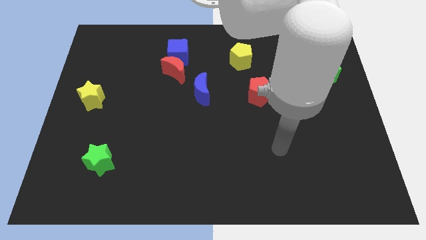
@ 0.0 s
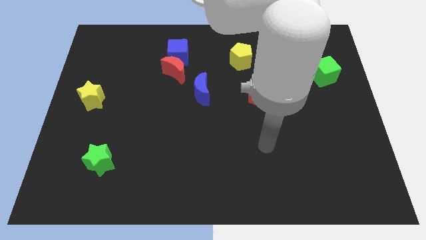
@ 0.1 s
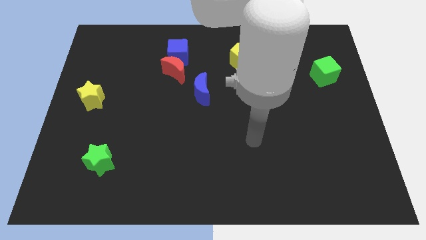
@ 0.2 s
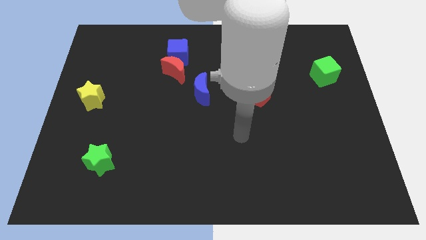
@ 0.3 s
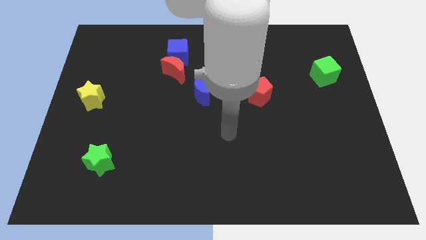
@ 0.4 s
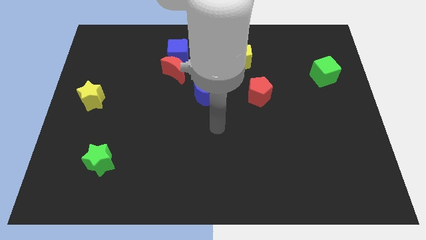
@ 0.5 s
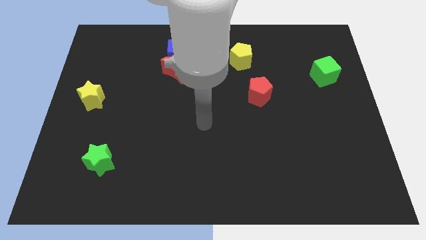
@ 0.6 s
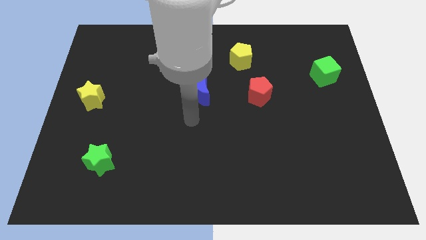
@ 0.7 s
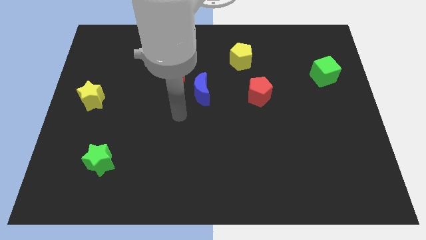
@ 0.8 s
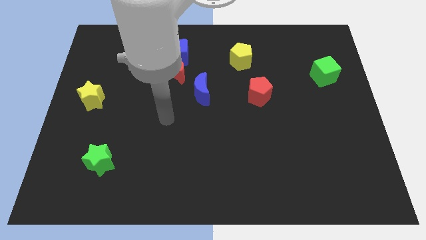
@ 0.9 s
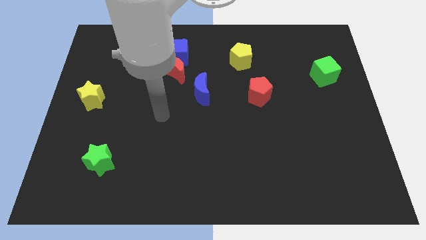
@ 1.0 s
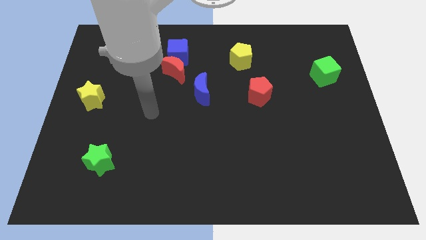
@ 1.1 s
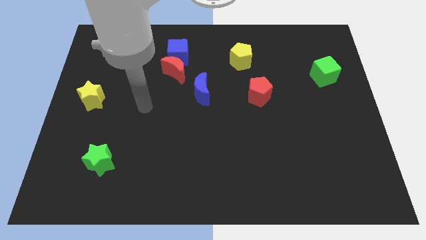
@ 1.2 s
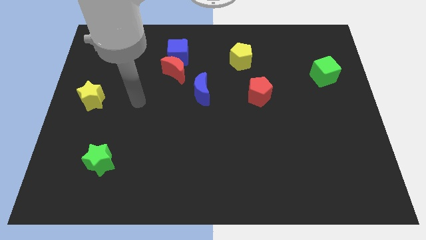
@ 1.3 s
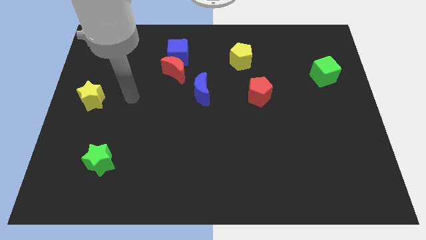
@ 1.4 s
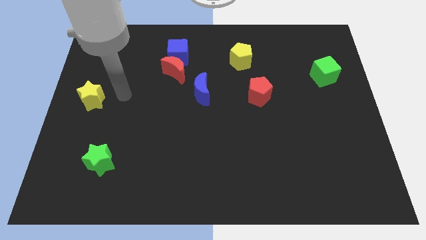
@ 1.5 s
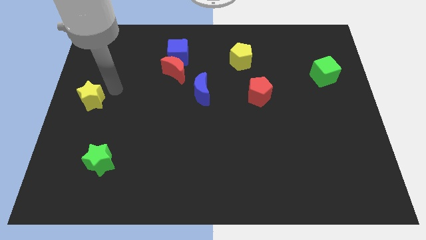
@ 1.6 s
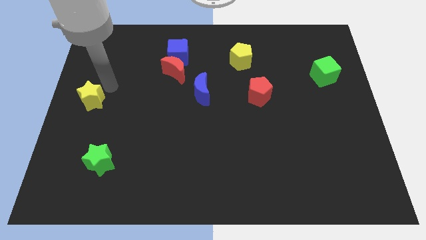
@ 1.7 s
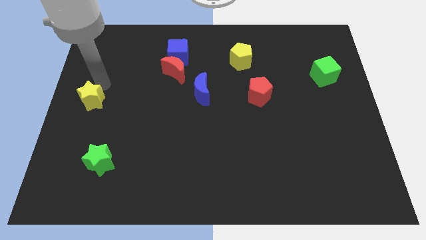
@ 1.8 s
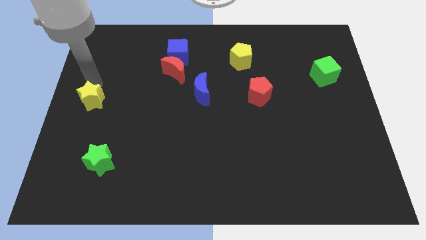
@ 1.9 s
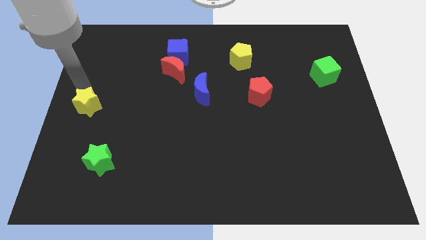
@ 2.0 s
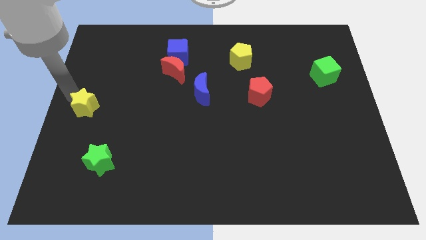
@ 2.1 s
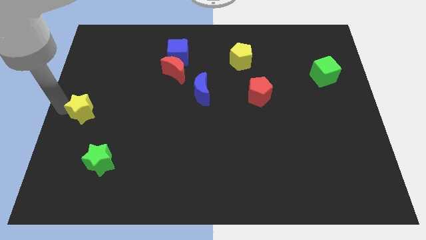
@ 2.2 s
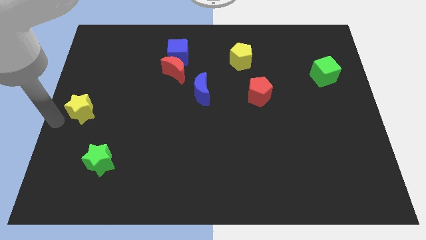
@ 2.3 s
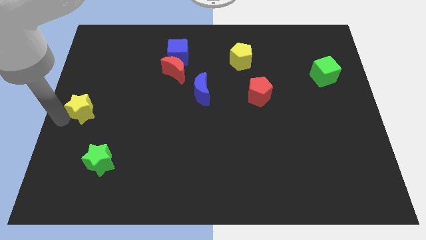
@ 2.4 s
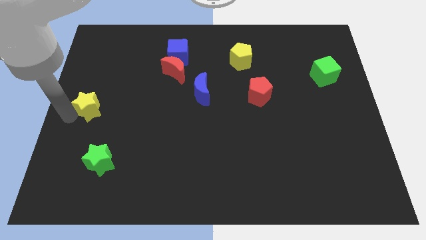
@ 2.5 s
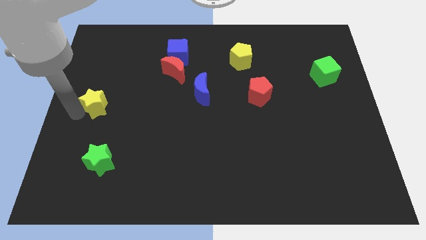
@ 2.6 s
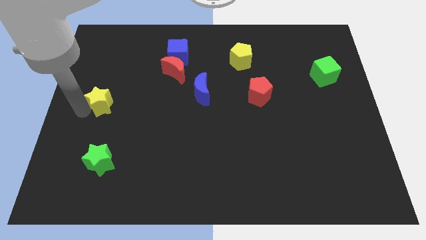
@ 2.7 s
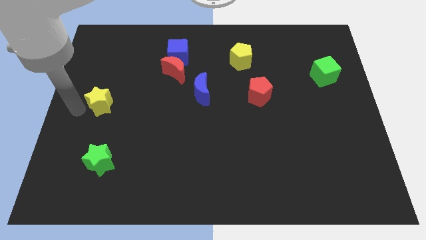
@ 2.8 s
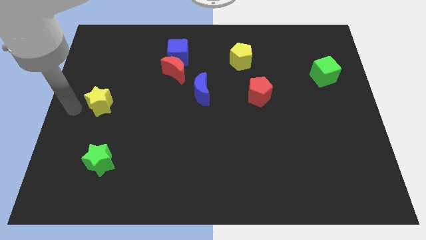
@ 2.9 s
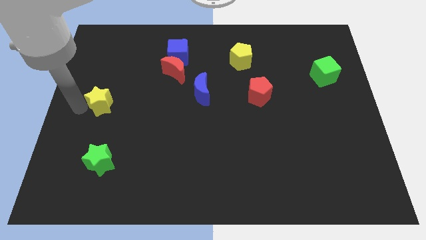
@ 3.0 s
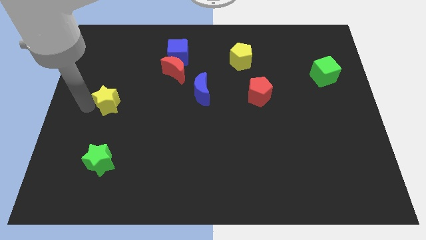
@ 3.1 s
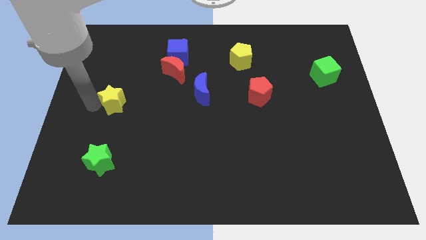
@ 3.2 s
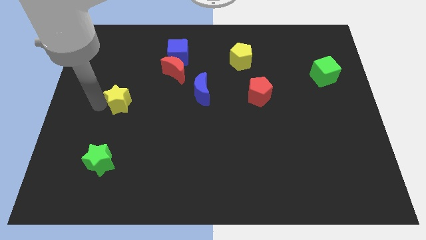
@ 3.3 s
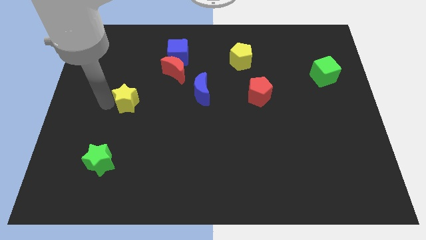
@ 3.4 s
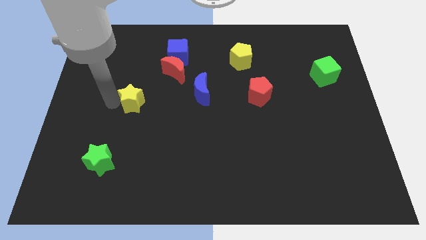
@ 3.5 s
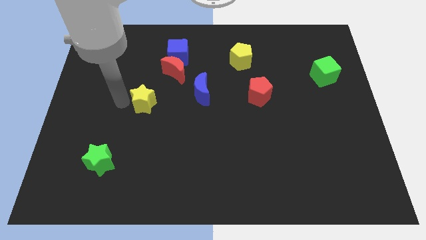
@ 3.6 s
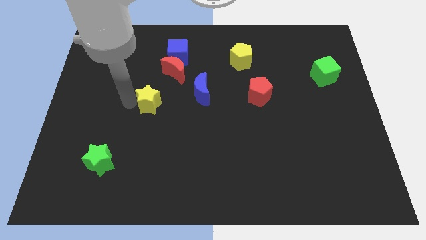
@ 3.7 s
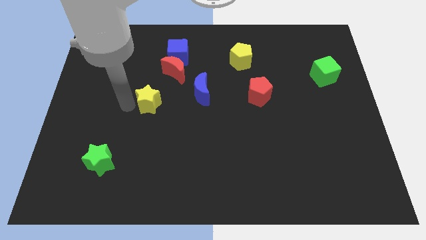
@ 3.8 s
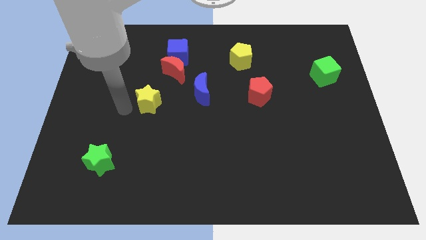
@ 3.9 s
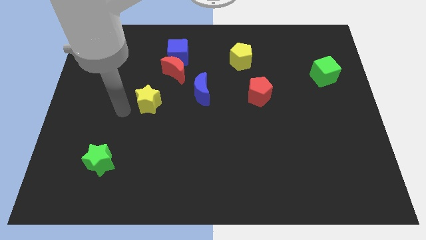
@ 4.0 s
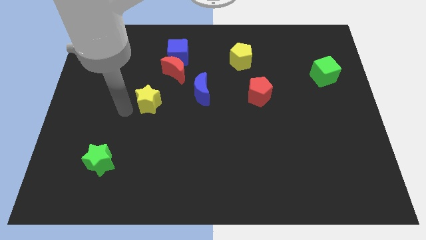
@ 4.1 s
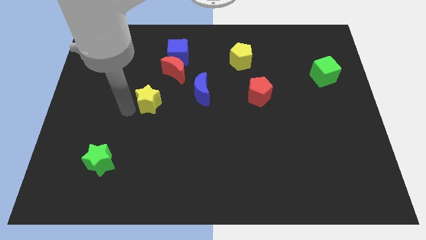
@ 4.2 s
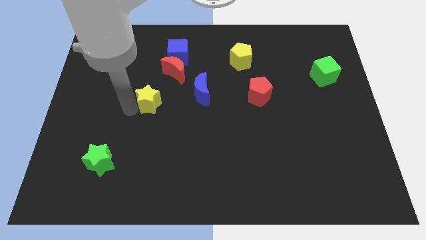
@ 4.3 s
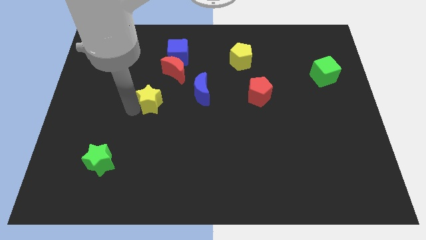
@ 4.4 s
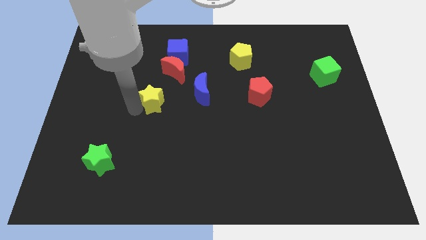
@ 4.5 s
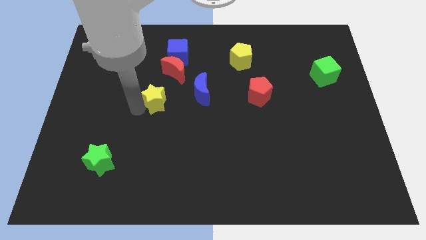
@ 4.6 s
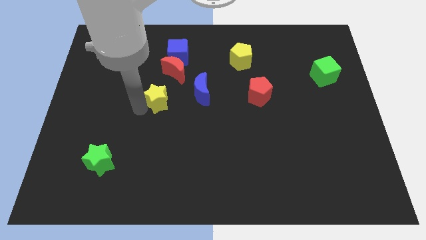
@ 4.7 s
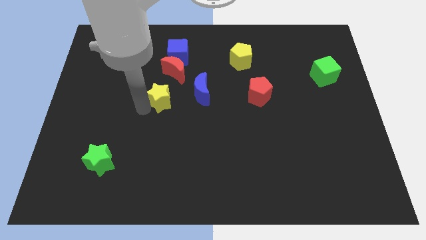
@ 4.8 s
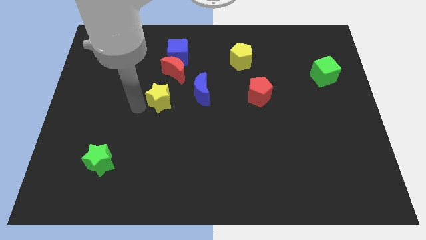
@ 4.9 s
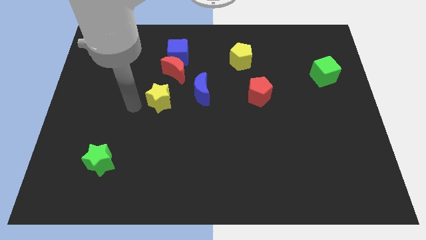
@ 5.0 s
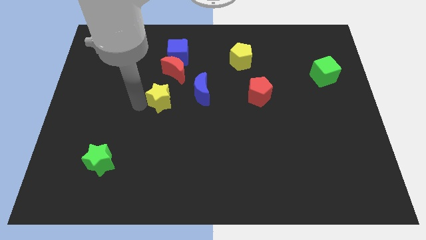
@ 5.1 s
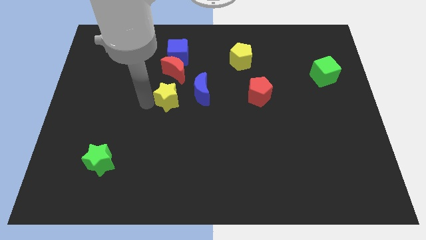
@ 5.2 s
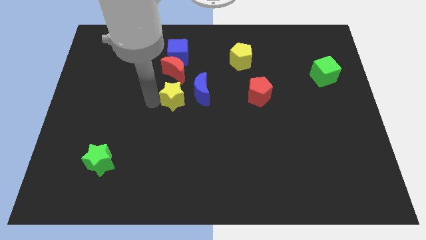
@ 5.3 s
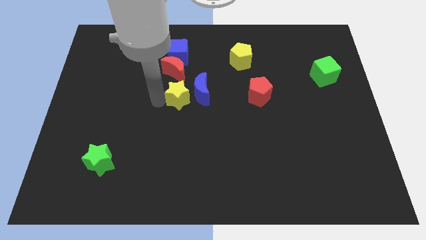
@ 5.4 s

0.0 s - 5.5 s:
push the yellow star towards the blue moon
